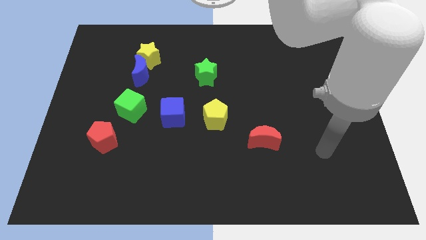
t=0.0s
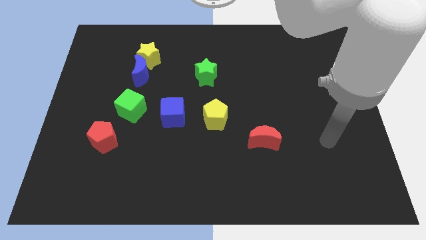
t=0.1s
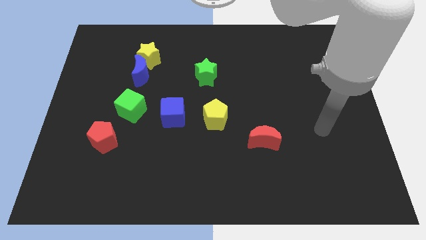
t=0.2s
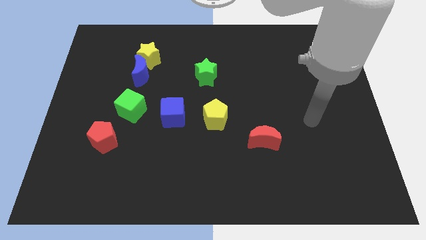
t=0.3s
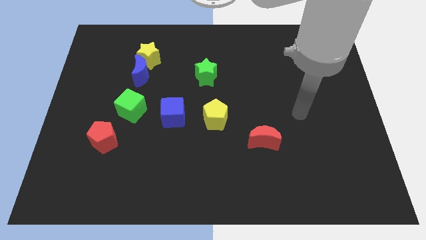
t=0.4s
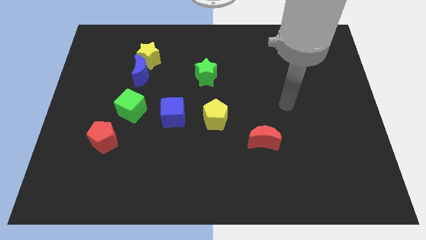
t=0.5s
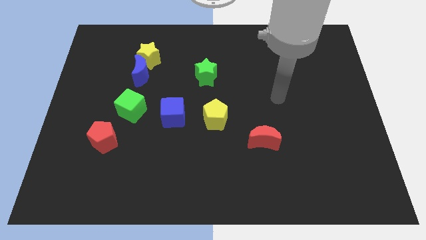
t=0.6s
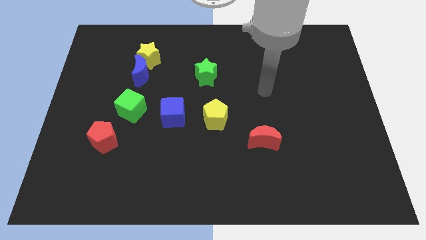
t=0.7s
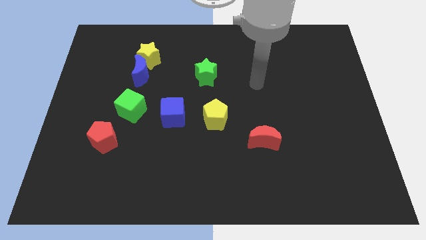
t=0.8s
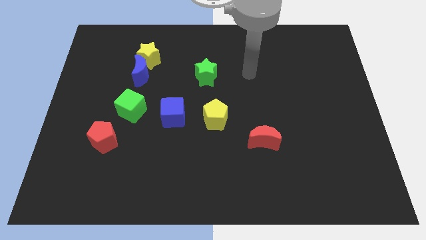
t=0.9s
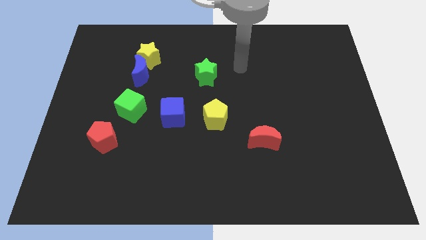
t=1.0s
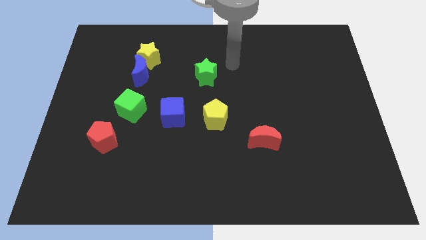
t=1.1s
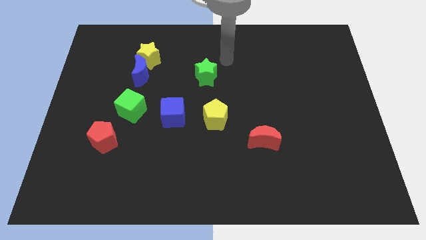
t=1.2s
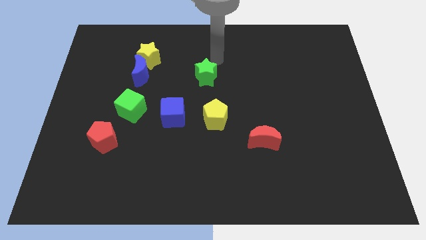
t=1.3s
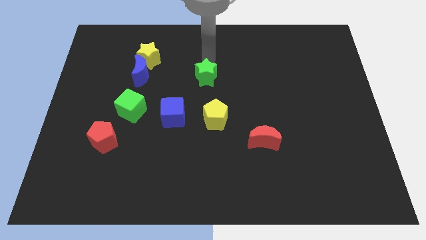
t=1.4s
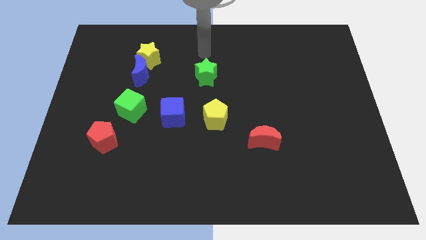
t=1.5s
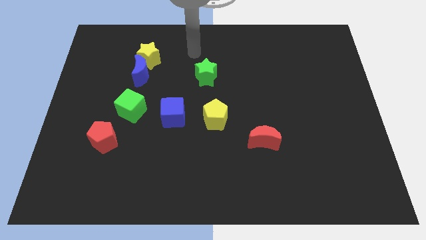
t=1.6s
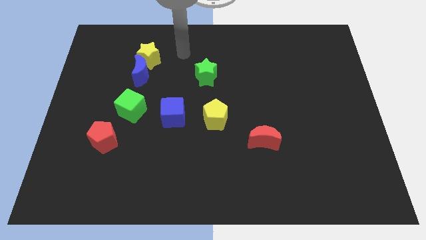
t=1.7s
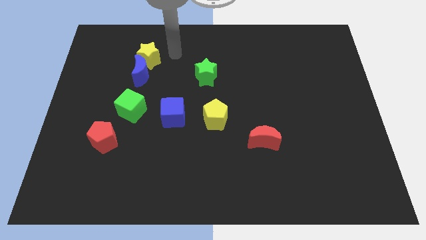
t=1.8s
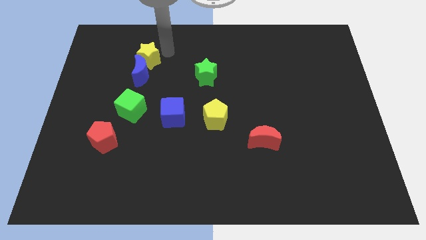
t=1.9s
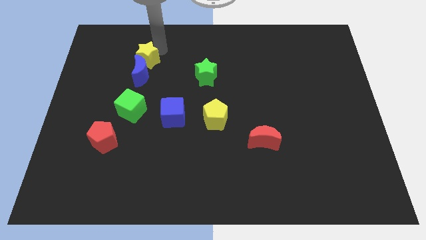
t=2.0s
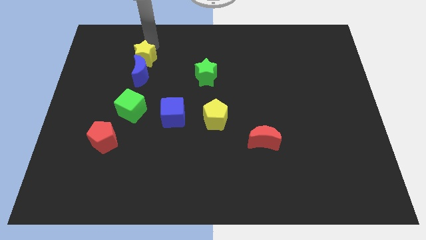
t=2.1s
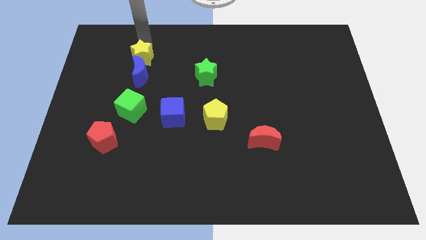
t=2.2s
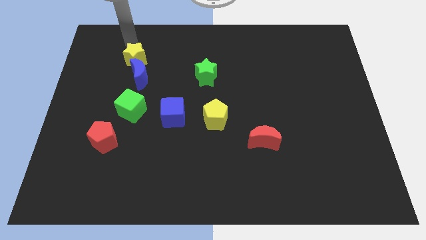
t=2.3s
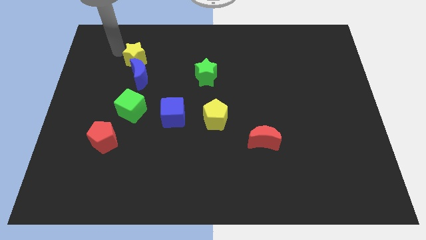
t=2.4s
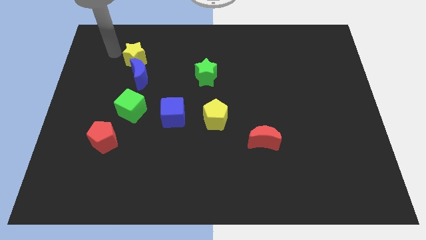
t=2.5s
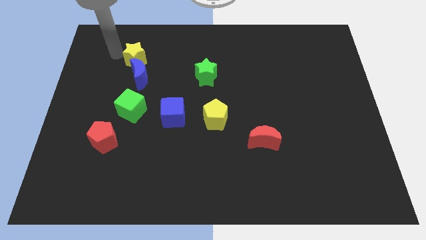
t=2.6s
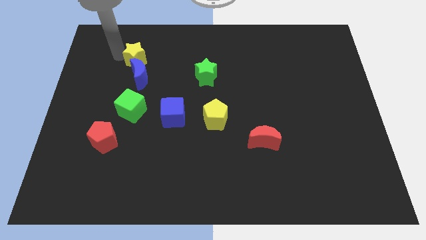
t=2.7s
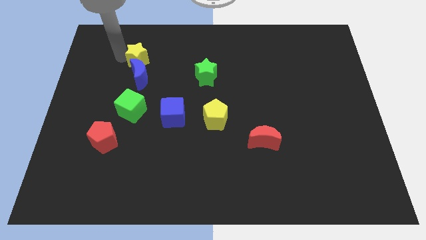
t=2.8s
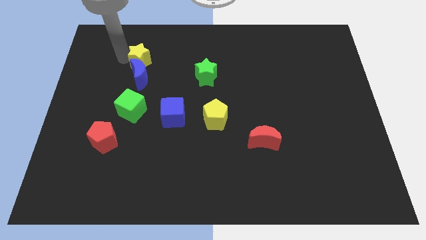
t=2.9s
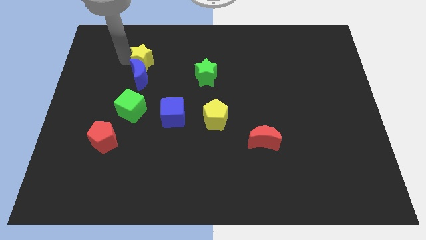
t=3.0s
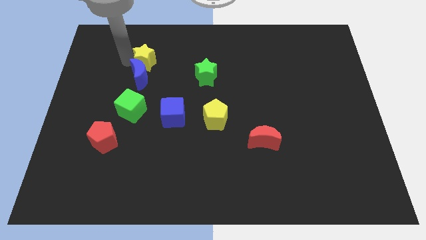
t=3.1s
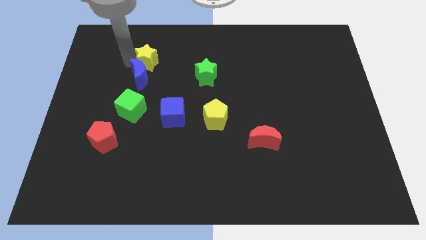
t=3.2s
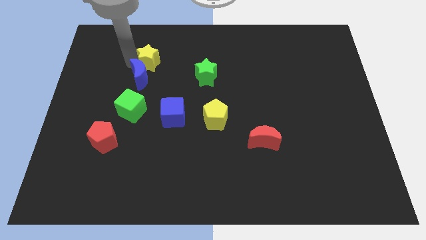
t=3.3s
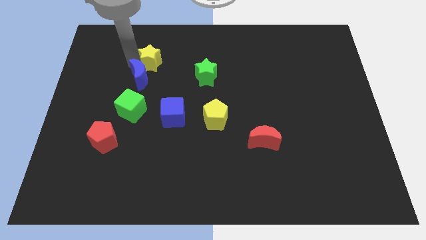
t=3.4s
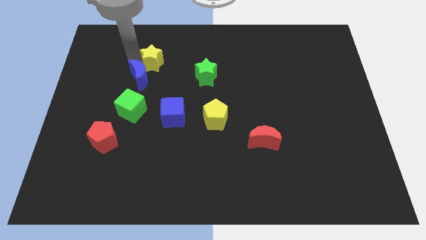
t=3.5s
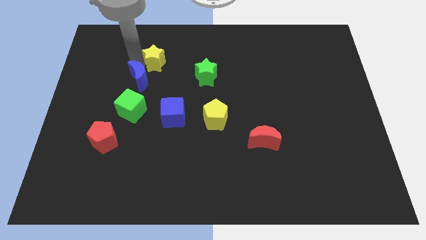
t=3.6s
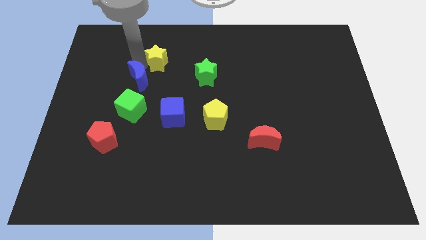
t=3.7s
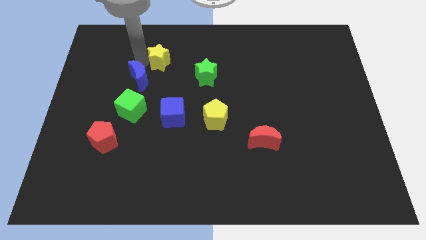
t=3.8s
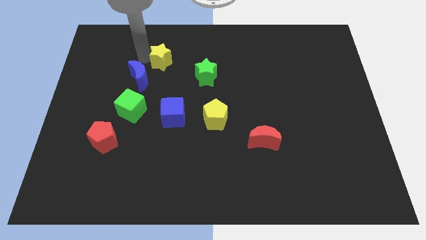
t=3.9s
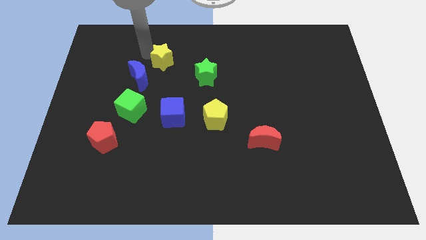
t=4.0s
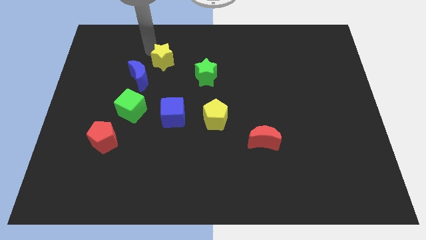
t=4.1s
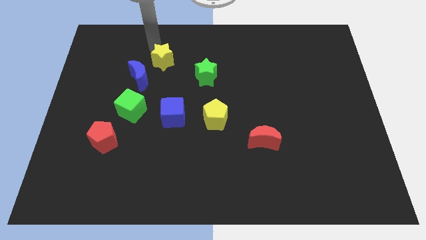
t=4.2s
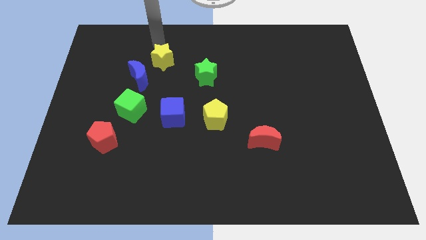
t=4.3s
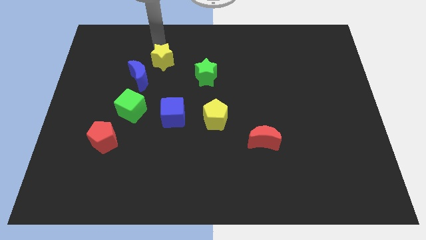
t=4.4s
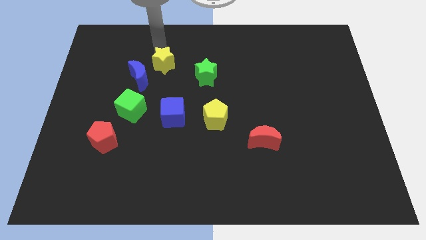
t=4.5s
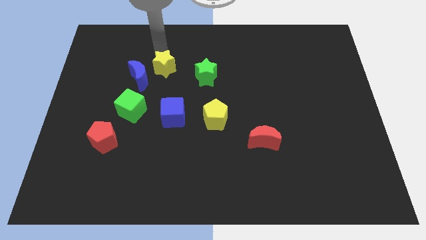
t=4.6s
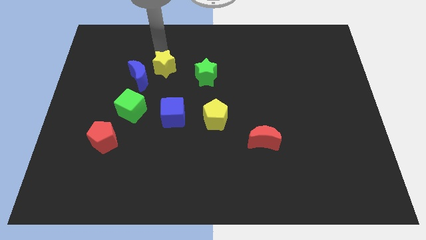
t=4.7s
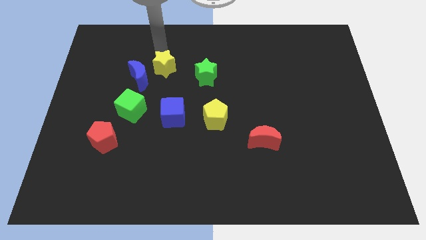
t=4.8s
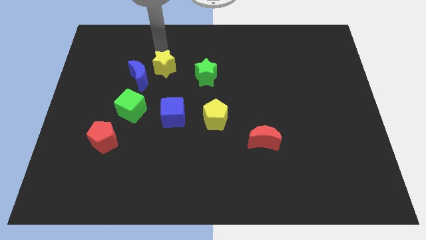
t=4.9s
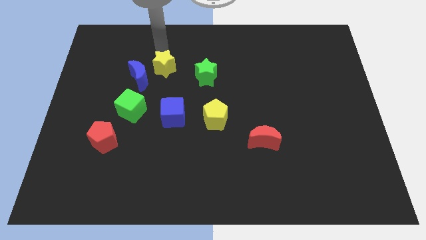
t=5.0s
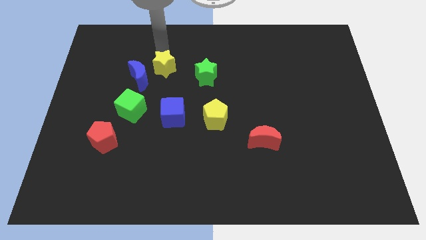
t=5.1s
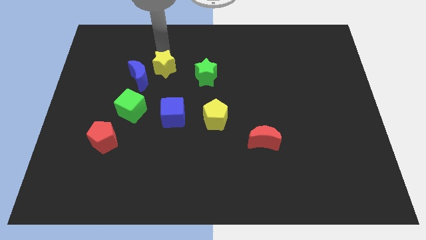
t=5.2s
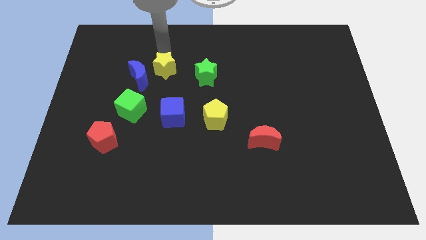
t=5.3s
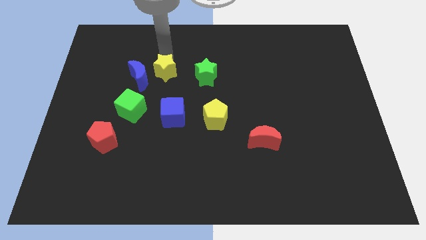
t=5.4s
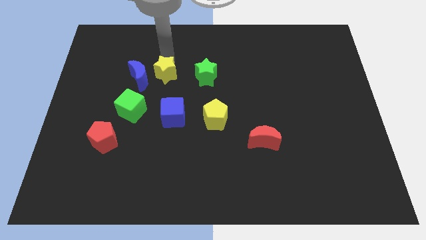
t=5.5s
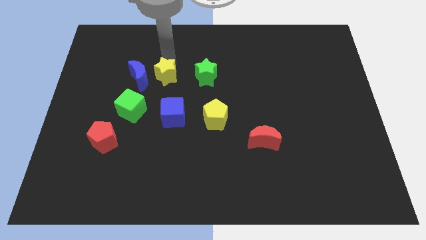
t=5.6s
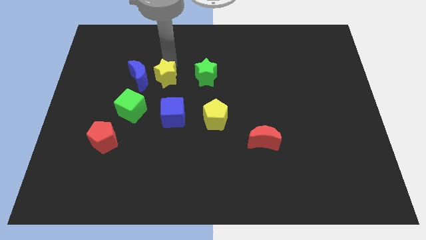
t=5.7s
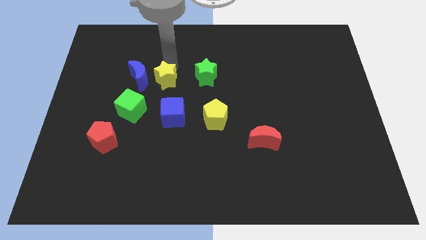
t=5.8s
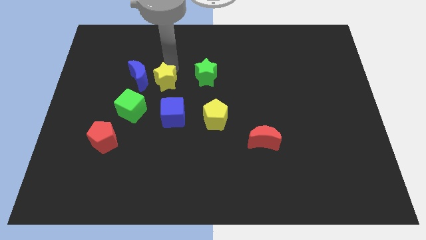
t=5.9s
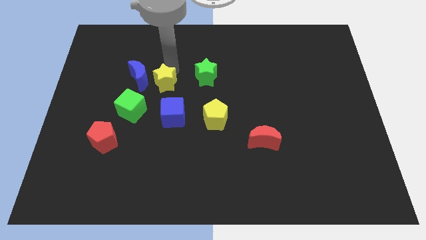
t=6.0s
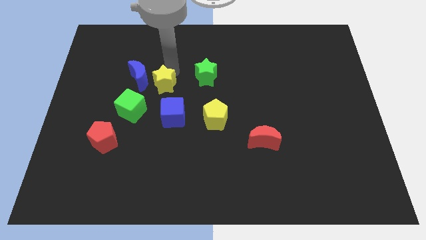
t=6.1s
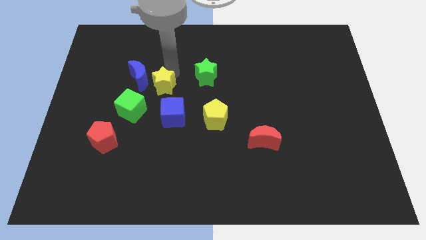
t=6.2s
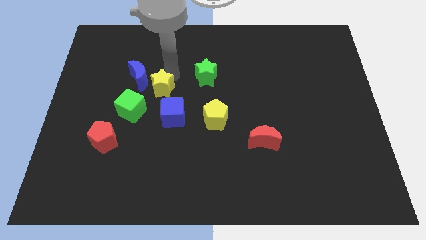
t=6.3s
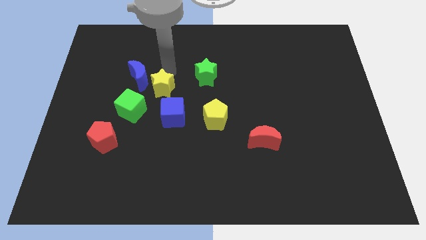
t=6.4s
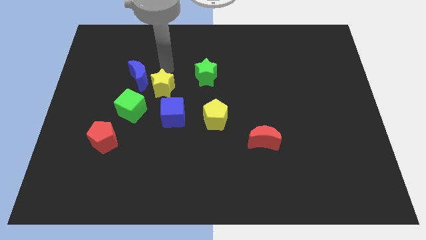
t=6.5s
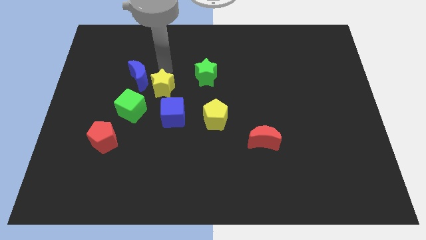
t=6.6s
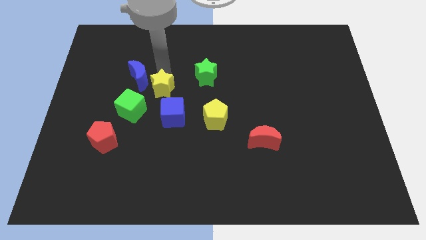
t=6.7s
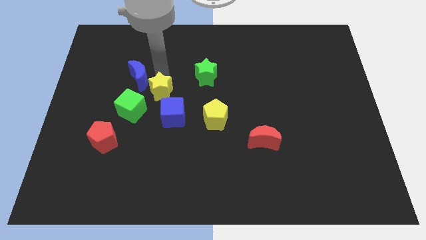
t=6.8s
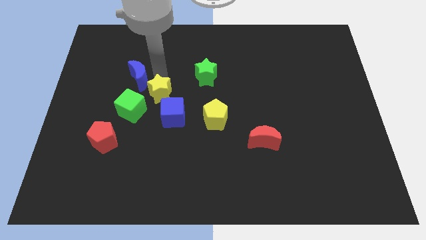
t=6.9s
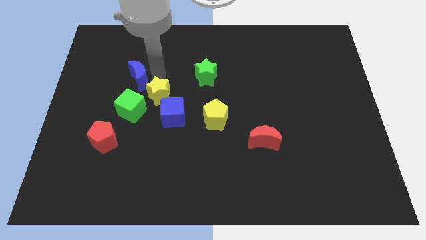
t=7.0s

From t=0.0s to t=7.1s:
slide the yellow star to the bottom side of the blue moon
